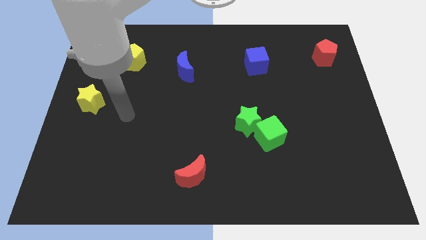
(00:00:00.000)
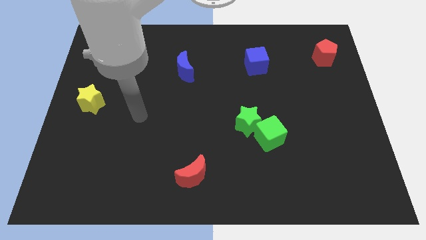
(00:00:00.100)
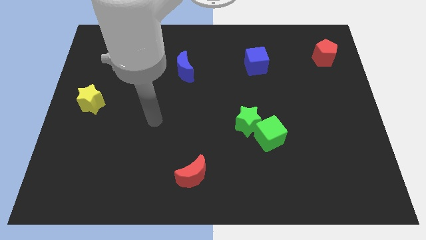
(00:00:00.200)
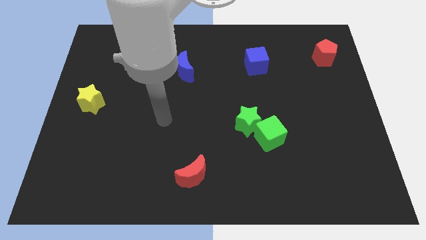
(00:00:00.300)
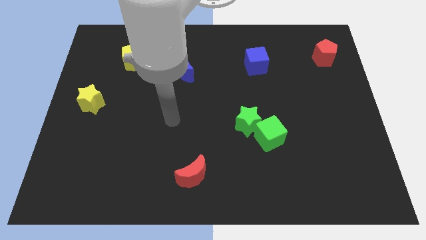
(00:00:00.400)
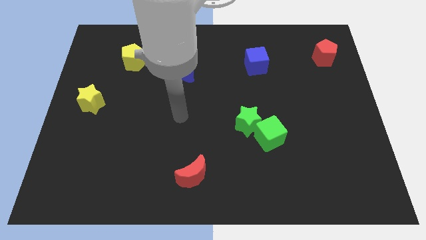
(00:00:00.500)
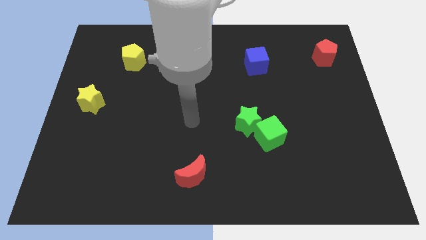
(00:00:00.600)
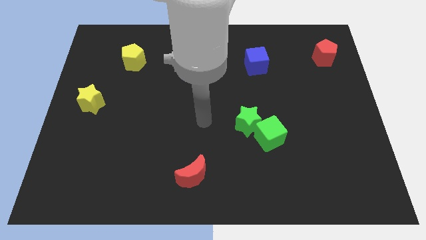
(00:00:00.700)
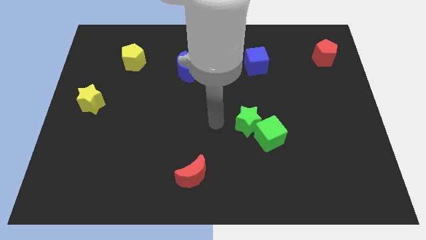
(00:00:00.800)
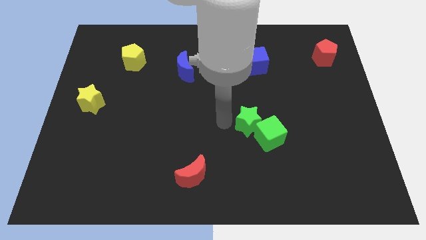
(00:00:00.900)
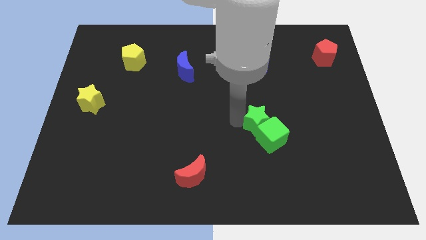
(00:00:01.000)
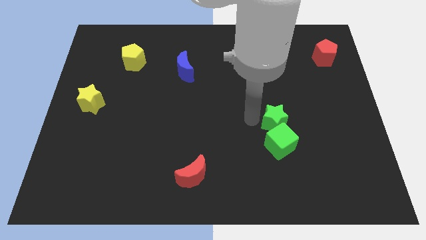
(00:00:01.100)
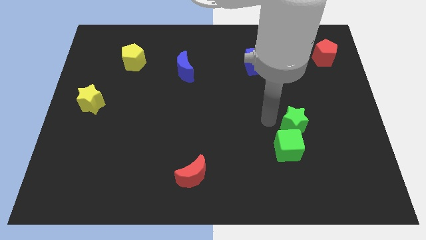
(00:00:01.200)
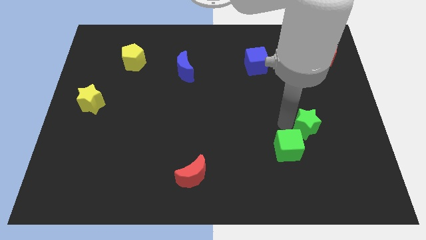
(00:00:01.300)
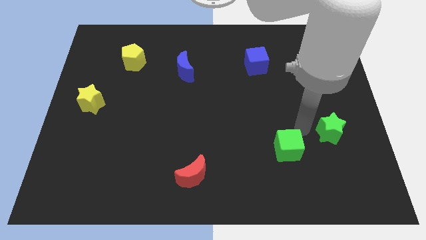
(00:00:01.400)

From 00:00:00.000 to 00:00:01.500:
move the green cube away from the green star

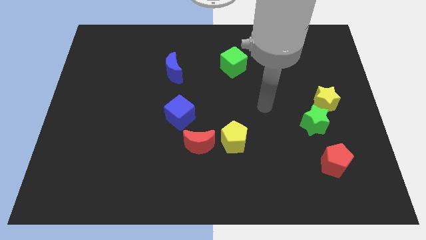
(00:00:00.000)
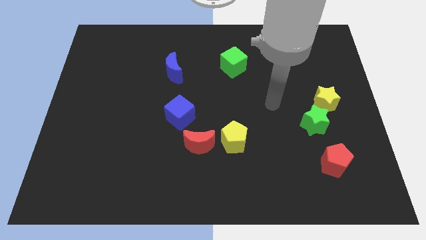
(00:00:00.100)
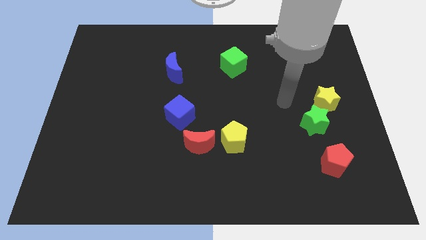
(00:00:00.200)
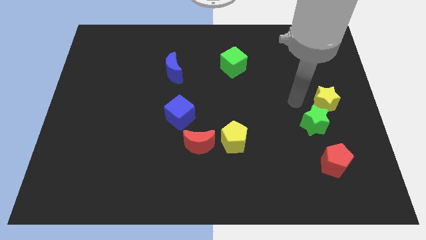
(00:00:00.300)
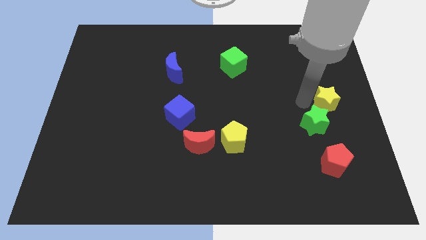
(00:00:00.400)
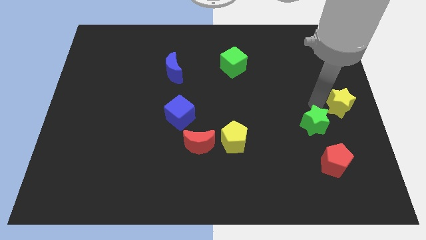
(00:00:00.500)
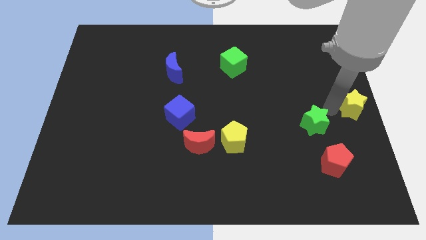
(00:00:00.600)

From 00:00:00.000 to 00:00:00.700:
separate the green star from the yellow star

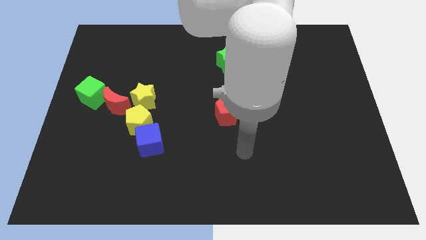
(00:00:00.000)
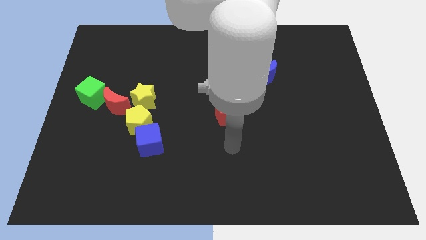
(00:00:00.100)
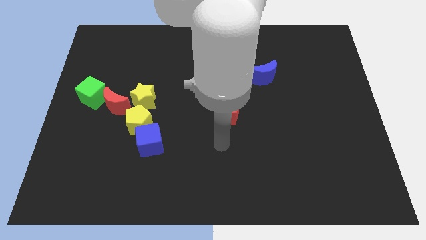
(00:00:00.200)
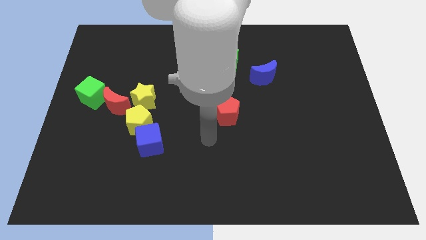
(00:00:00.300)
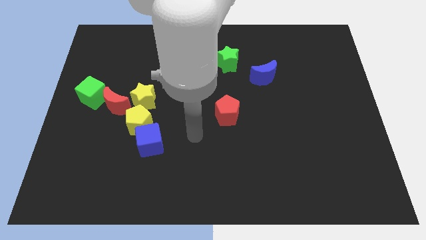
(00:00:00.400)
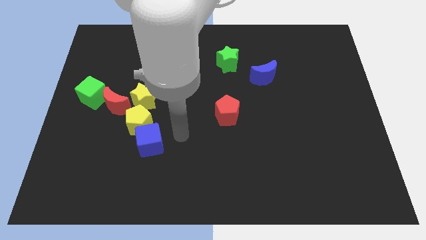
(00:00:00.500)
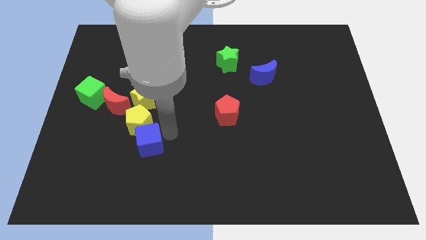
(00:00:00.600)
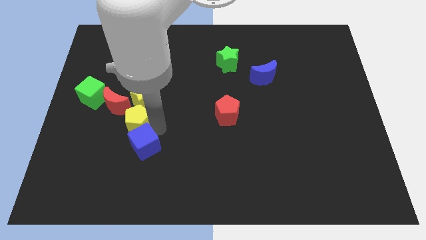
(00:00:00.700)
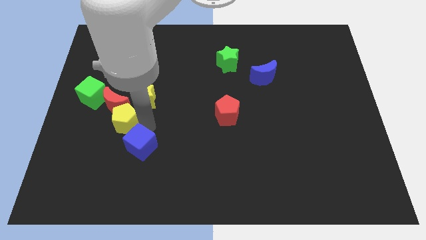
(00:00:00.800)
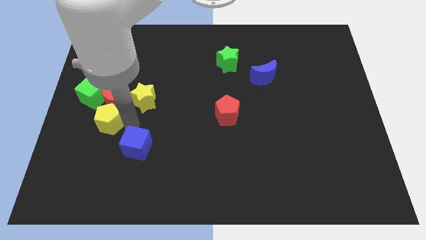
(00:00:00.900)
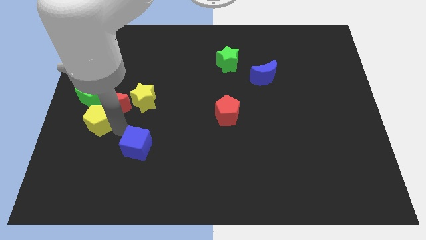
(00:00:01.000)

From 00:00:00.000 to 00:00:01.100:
pull the blue cube apart from the yellow pentagon

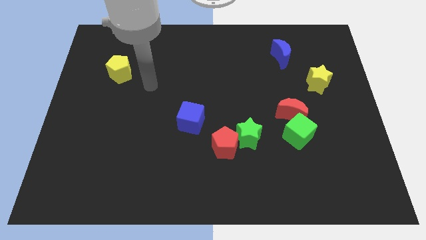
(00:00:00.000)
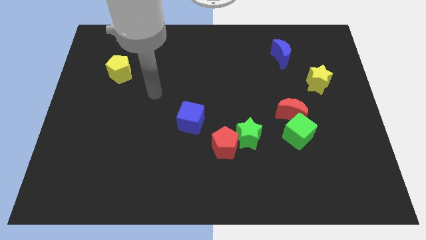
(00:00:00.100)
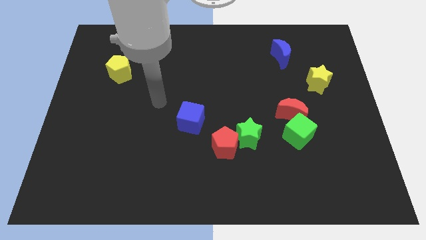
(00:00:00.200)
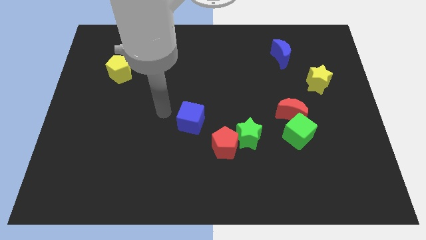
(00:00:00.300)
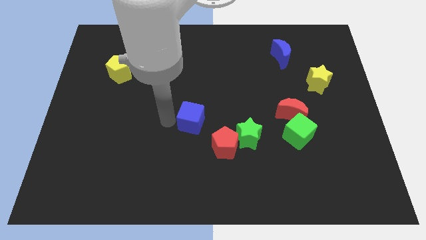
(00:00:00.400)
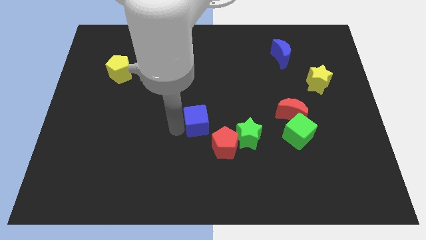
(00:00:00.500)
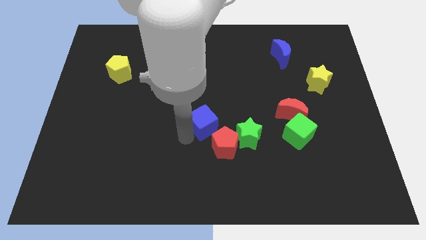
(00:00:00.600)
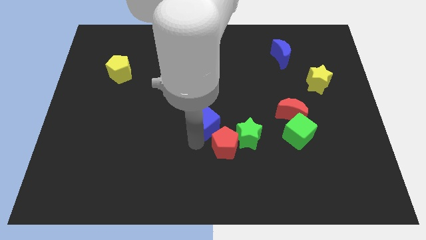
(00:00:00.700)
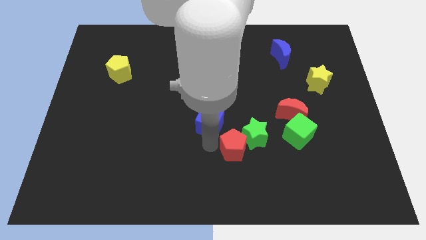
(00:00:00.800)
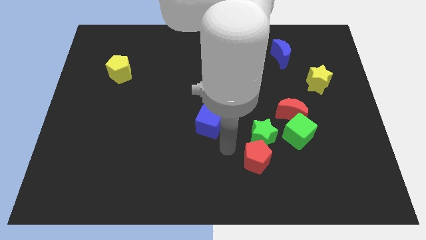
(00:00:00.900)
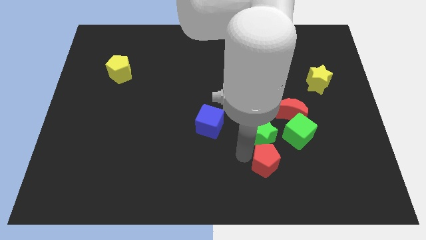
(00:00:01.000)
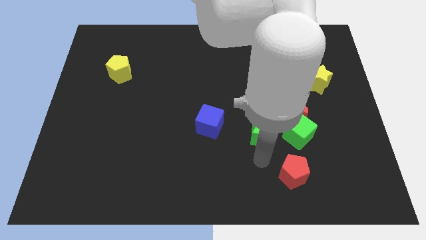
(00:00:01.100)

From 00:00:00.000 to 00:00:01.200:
separate the green star from the red pentagon

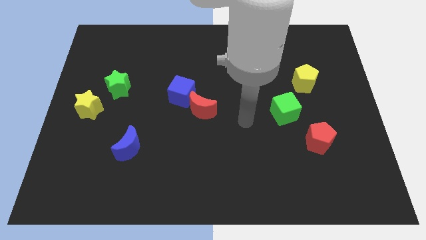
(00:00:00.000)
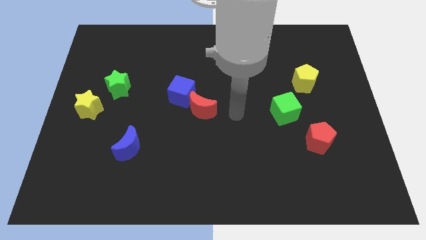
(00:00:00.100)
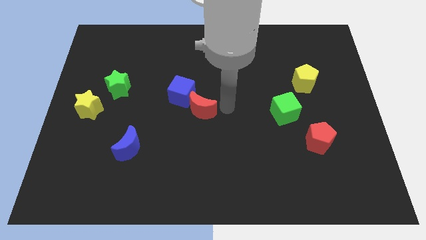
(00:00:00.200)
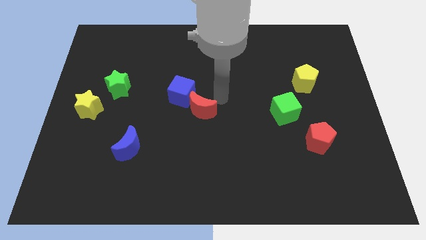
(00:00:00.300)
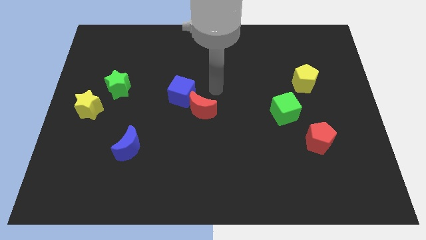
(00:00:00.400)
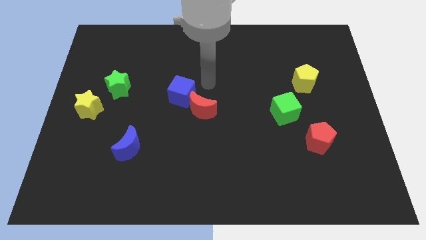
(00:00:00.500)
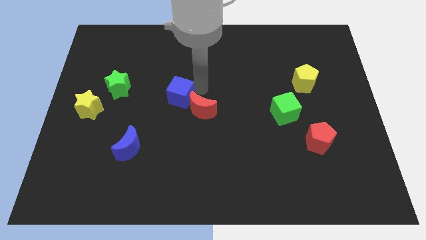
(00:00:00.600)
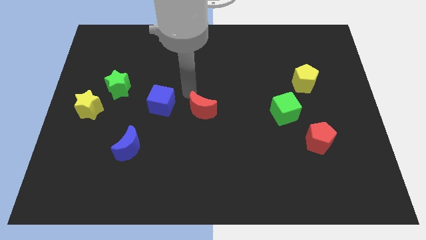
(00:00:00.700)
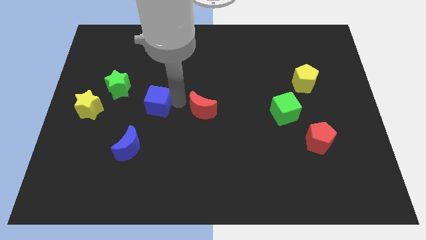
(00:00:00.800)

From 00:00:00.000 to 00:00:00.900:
separate the red moon from the blue cube

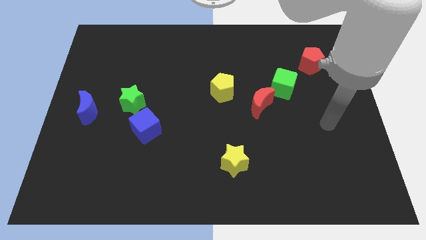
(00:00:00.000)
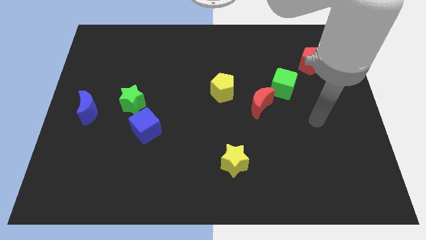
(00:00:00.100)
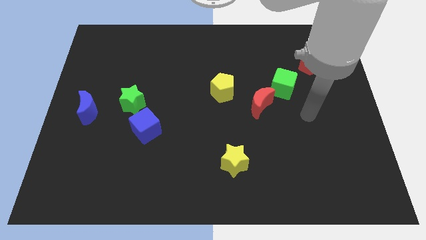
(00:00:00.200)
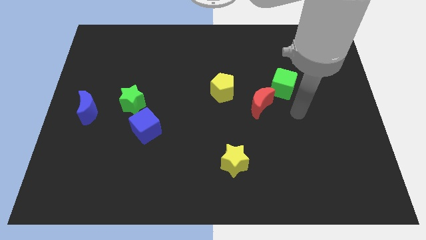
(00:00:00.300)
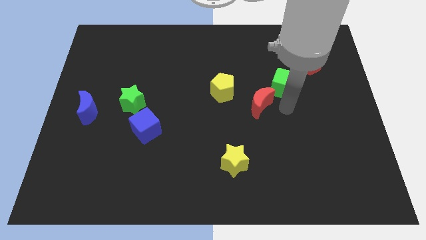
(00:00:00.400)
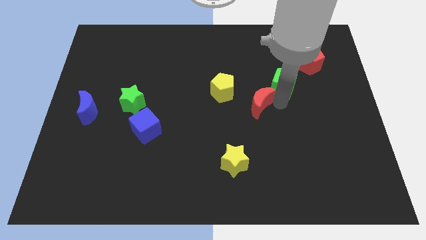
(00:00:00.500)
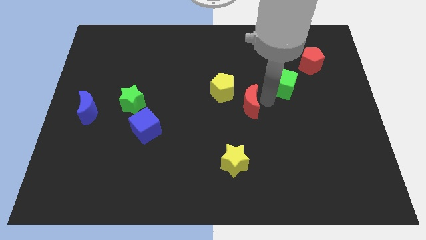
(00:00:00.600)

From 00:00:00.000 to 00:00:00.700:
move the green cube away from the red moon

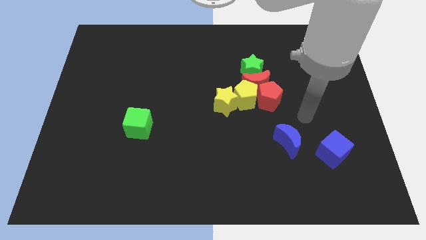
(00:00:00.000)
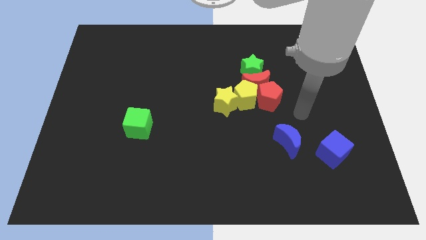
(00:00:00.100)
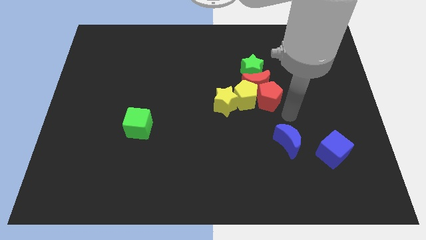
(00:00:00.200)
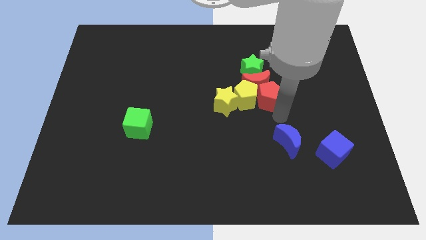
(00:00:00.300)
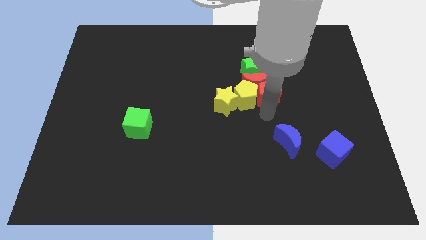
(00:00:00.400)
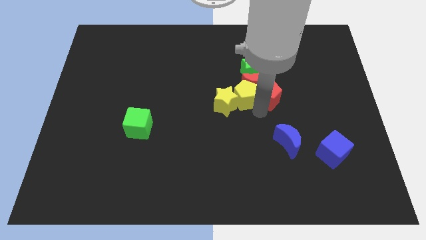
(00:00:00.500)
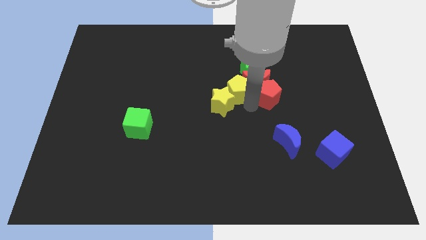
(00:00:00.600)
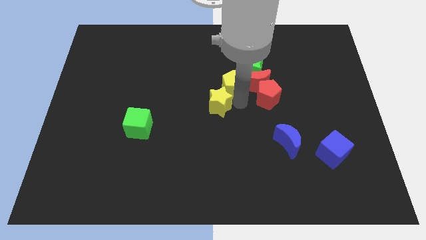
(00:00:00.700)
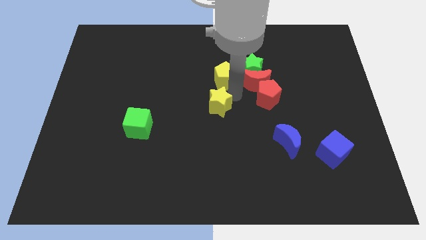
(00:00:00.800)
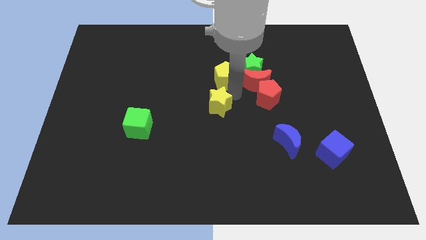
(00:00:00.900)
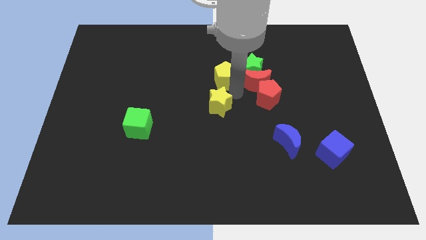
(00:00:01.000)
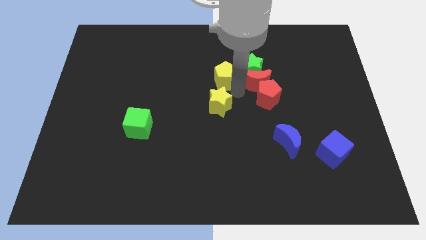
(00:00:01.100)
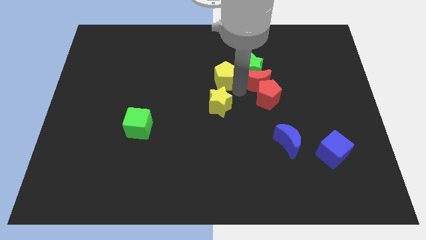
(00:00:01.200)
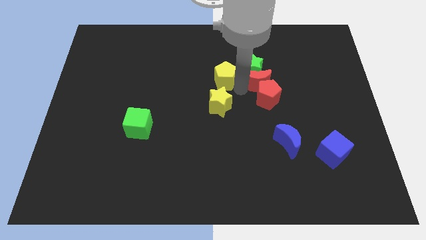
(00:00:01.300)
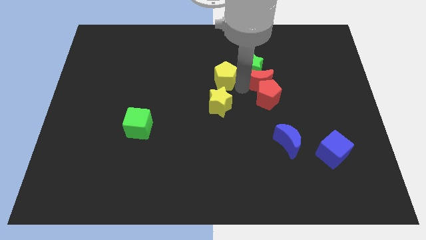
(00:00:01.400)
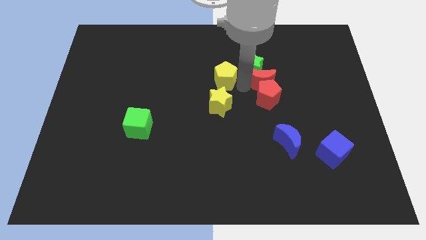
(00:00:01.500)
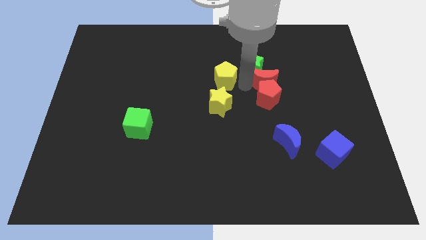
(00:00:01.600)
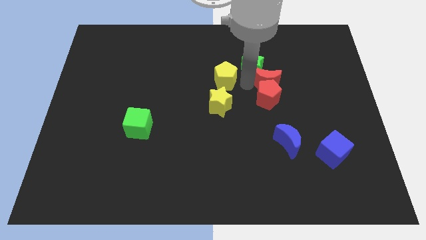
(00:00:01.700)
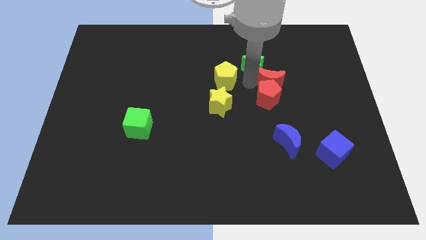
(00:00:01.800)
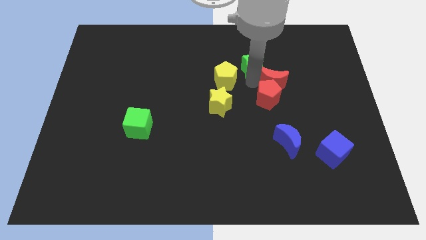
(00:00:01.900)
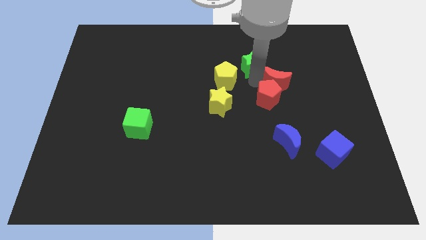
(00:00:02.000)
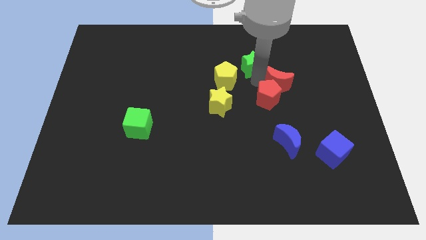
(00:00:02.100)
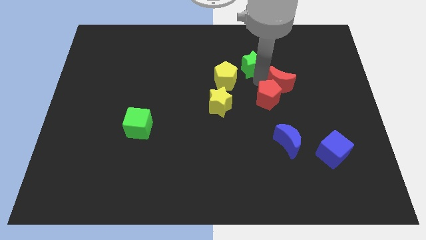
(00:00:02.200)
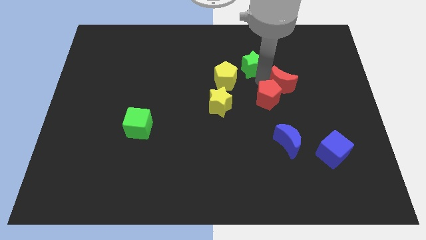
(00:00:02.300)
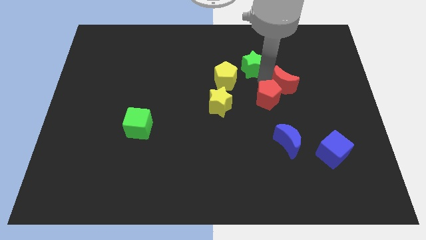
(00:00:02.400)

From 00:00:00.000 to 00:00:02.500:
move the red moon away from the clump

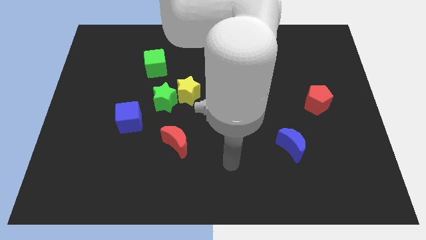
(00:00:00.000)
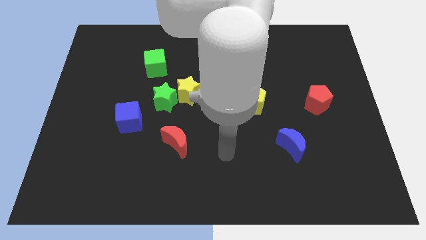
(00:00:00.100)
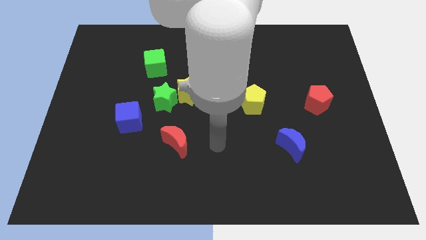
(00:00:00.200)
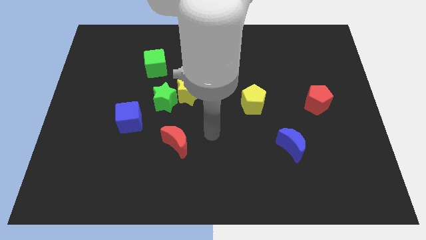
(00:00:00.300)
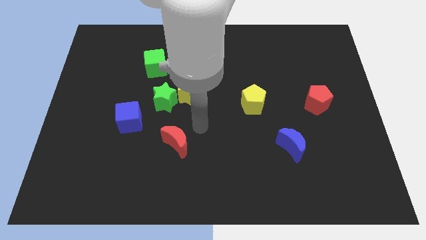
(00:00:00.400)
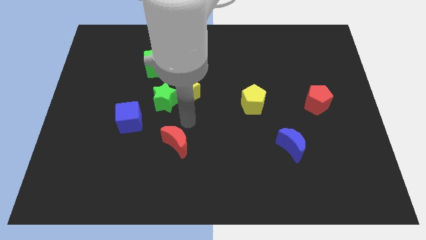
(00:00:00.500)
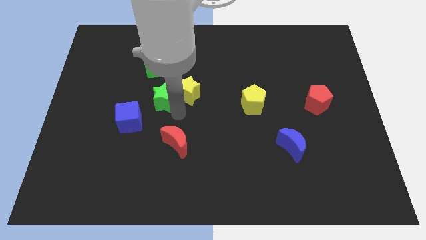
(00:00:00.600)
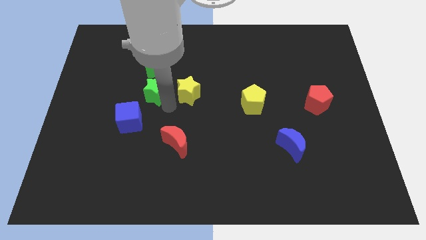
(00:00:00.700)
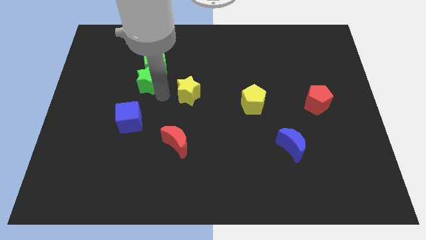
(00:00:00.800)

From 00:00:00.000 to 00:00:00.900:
move the yellow star away from the green star
